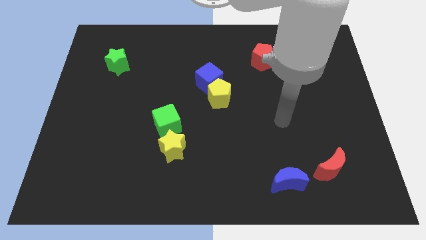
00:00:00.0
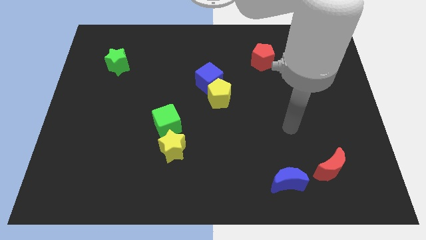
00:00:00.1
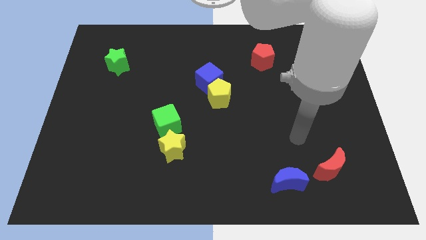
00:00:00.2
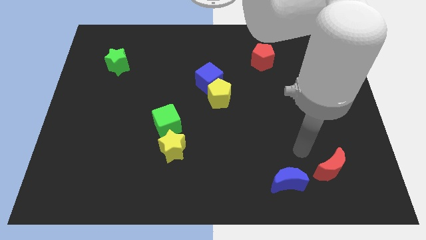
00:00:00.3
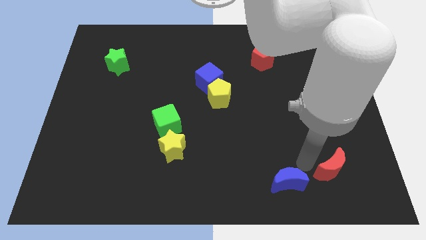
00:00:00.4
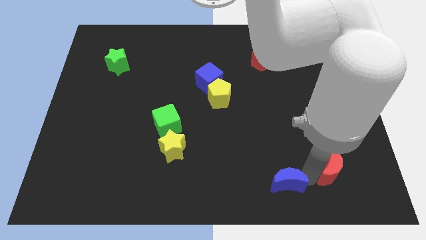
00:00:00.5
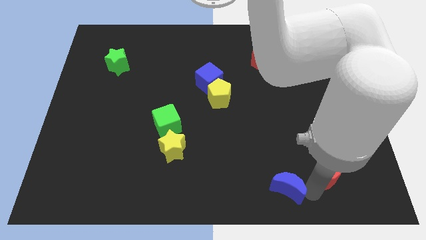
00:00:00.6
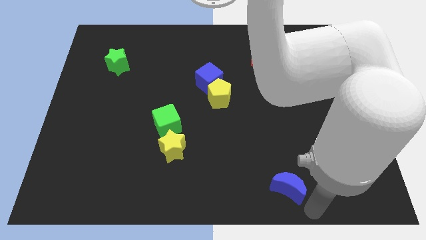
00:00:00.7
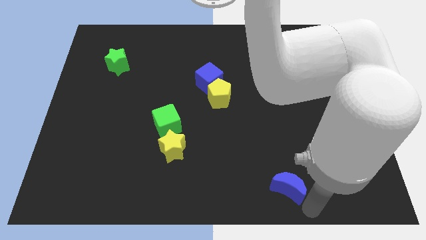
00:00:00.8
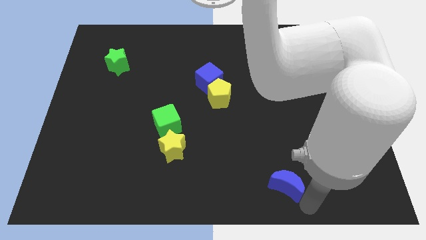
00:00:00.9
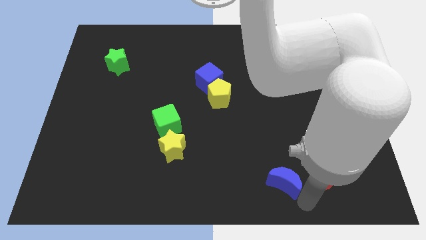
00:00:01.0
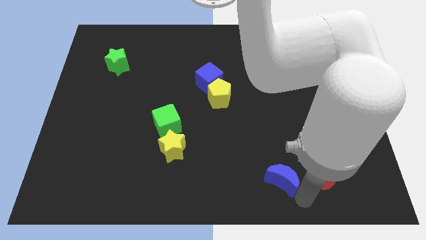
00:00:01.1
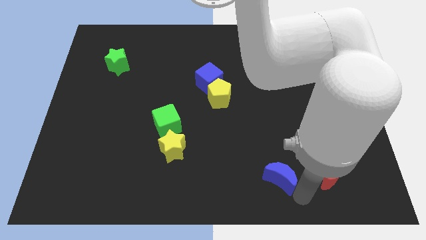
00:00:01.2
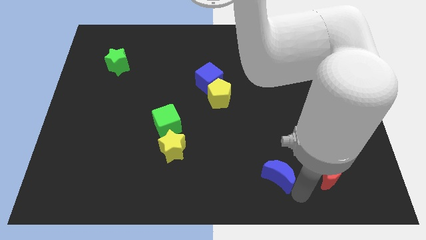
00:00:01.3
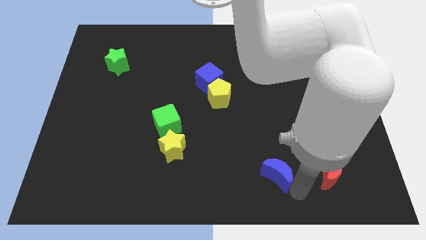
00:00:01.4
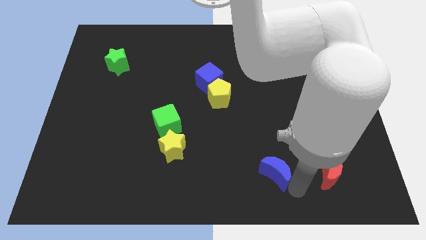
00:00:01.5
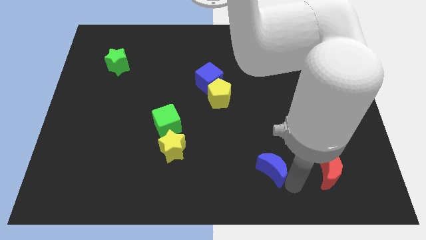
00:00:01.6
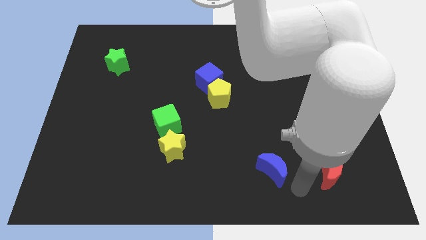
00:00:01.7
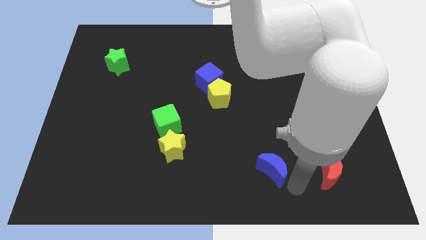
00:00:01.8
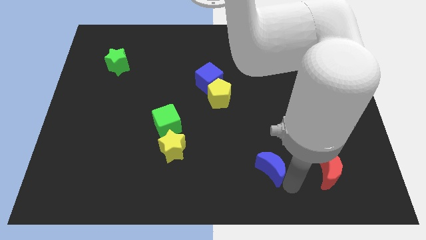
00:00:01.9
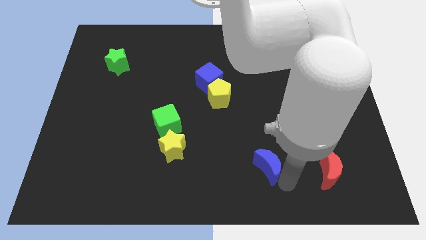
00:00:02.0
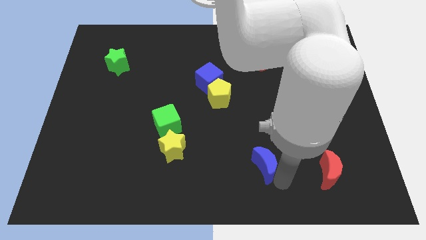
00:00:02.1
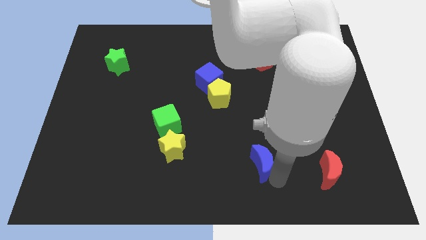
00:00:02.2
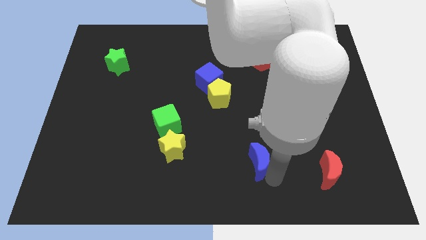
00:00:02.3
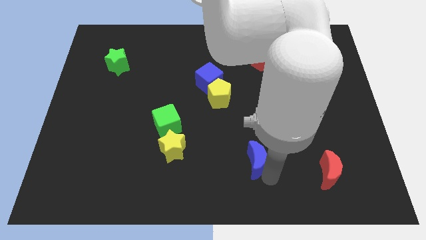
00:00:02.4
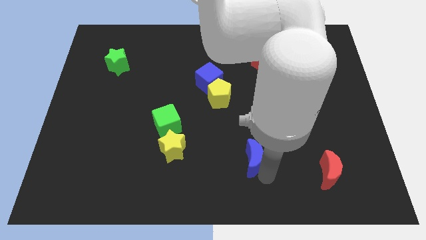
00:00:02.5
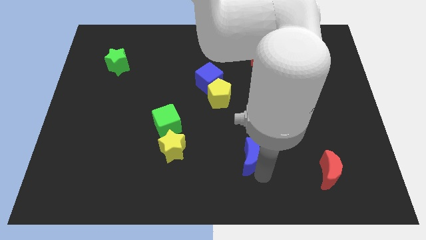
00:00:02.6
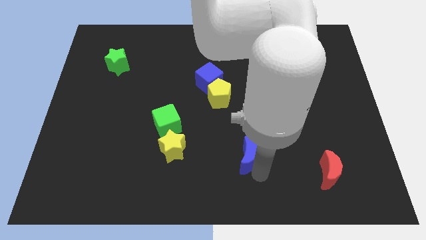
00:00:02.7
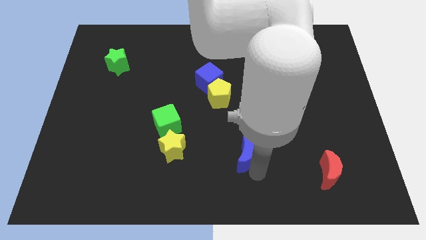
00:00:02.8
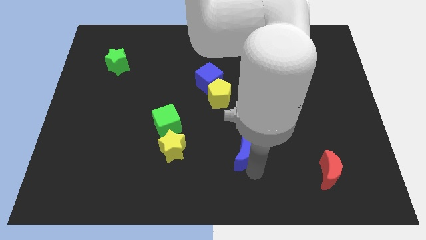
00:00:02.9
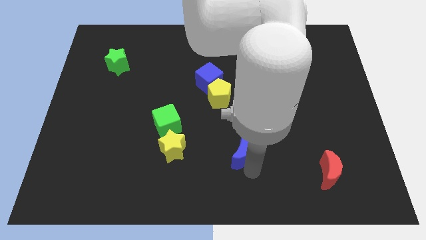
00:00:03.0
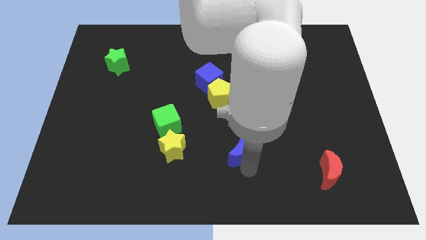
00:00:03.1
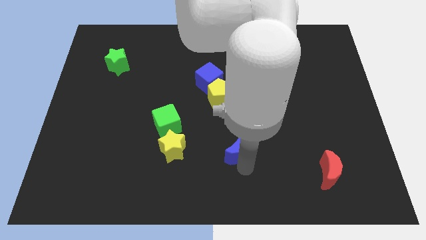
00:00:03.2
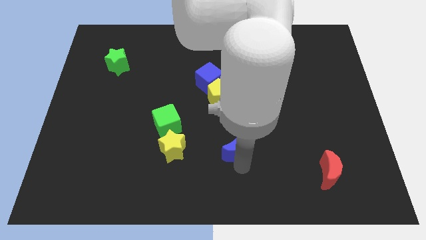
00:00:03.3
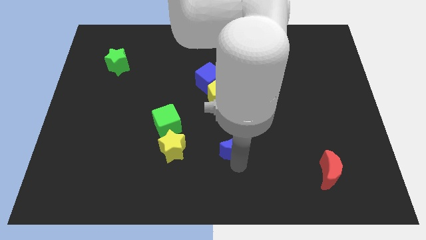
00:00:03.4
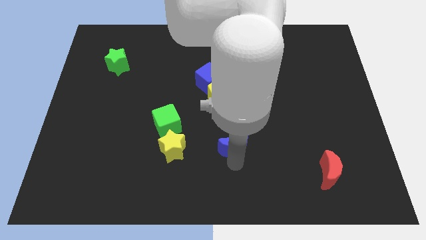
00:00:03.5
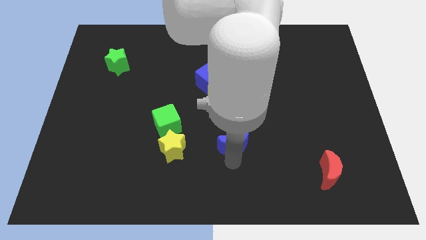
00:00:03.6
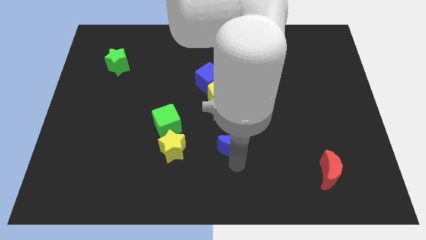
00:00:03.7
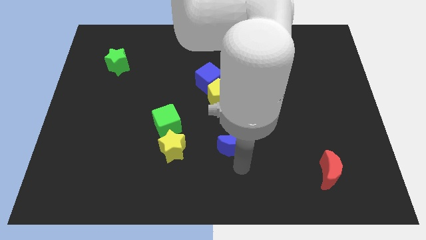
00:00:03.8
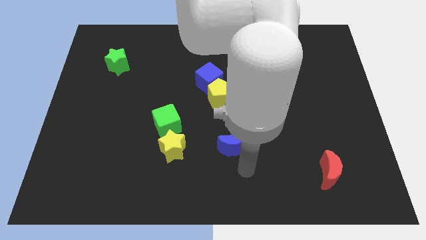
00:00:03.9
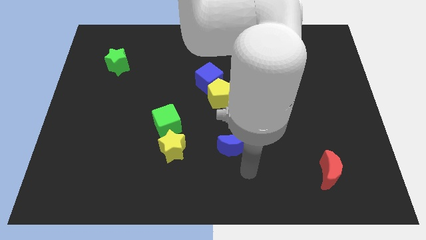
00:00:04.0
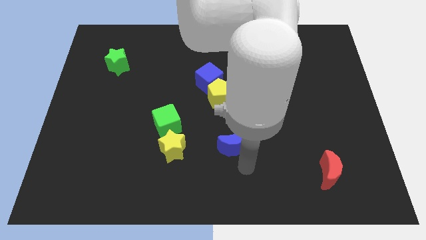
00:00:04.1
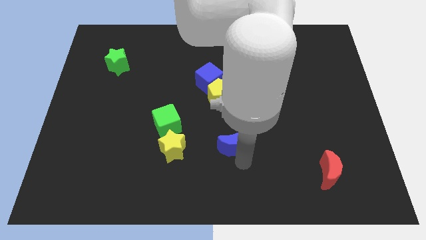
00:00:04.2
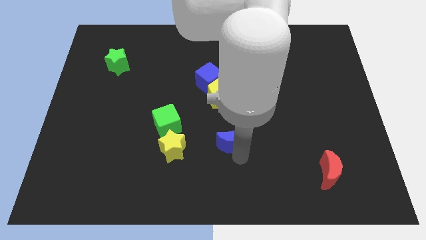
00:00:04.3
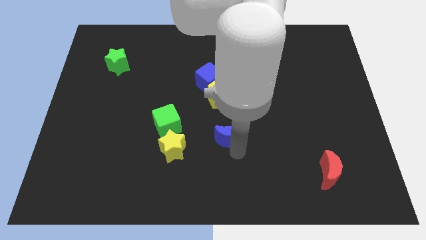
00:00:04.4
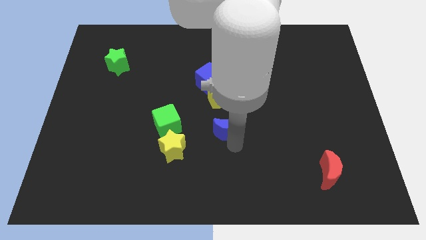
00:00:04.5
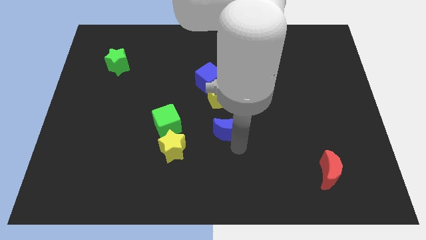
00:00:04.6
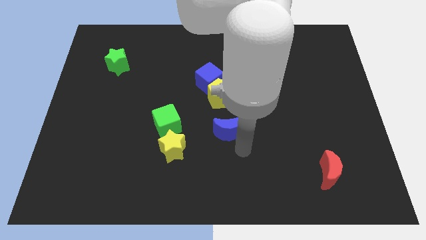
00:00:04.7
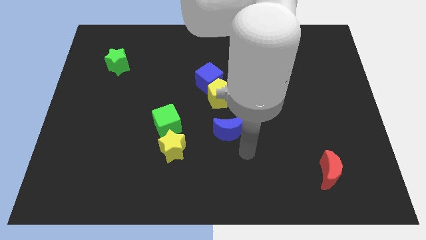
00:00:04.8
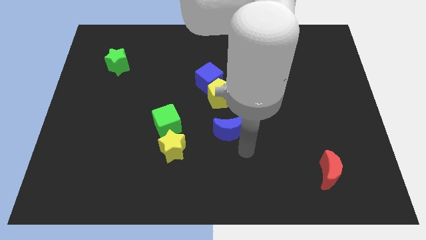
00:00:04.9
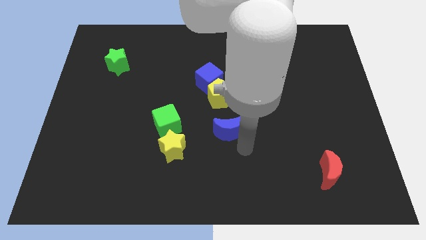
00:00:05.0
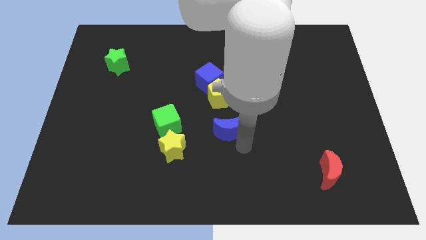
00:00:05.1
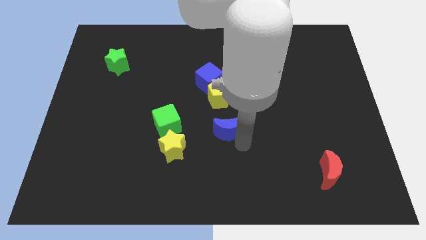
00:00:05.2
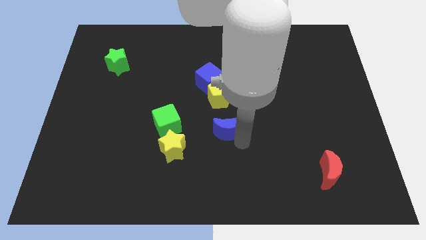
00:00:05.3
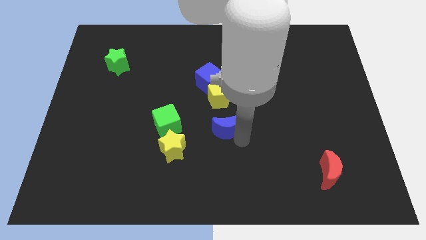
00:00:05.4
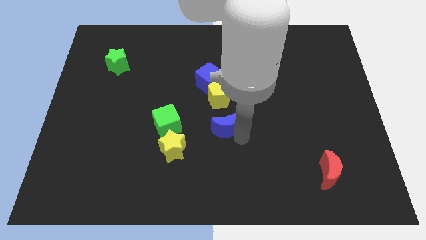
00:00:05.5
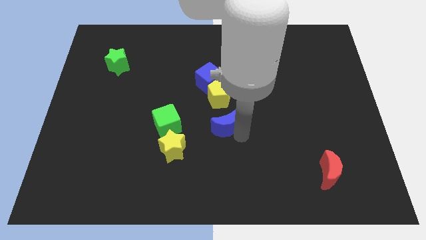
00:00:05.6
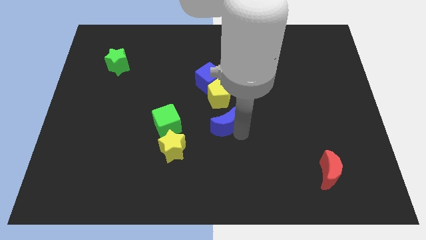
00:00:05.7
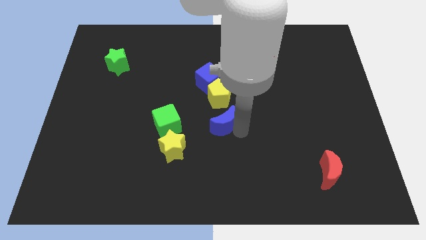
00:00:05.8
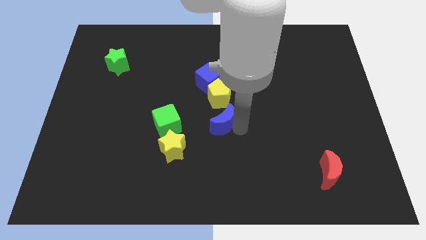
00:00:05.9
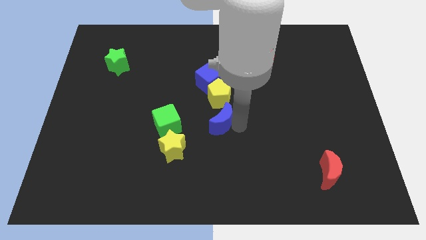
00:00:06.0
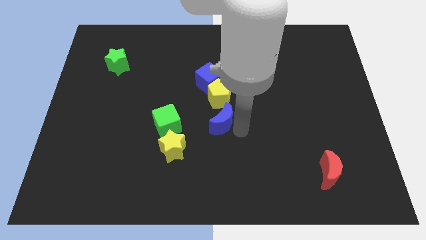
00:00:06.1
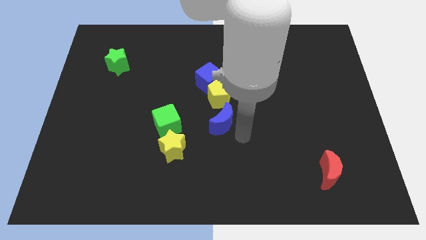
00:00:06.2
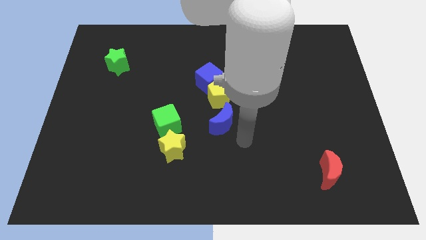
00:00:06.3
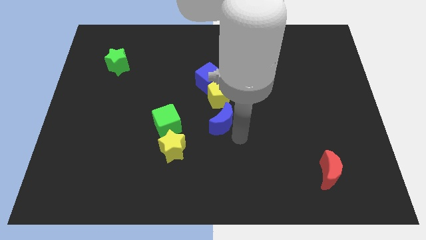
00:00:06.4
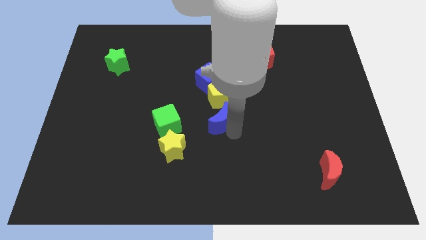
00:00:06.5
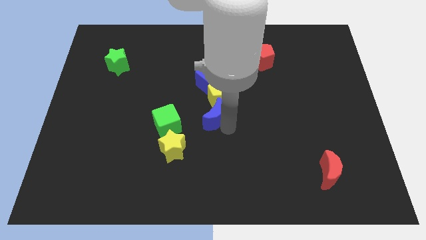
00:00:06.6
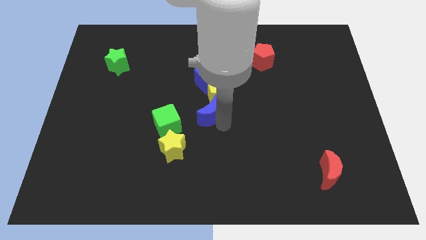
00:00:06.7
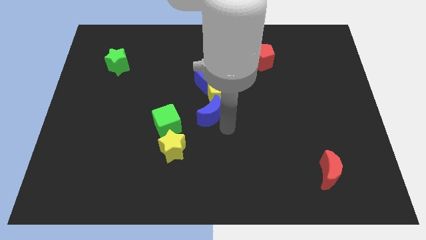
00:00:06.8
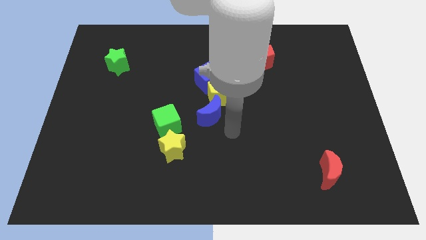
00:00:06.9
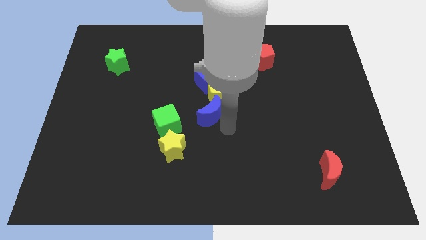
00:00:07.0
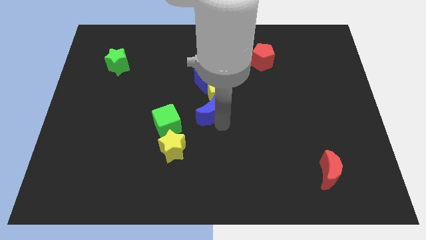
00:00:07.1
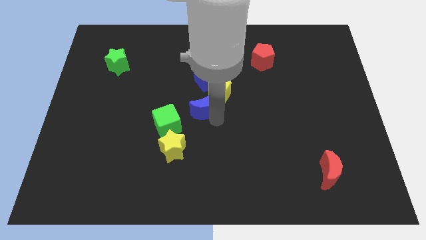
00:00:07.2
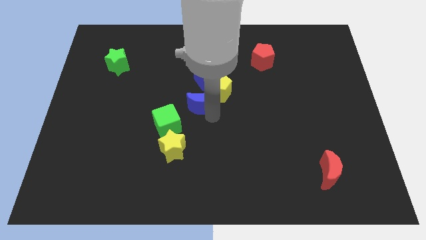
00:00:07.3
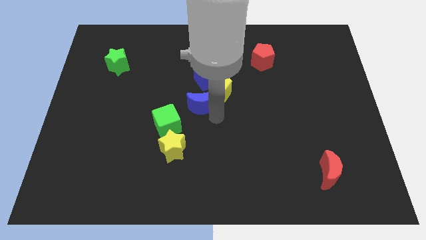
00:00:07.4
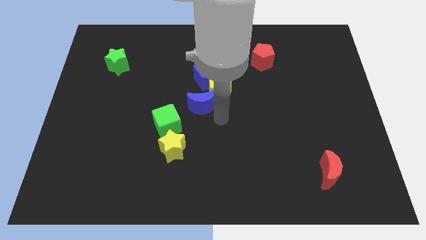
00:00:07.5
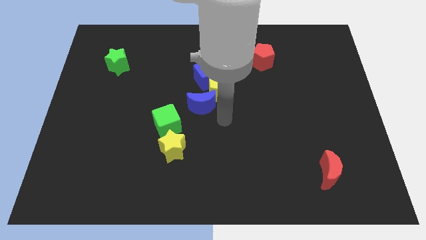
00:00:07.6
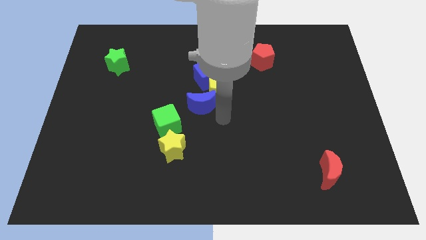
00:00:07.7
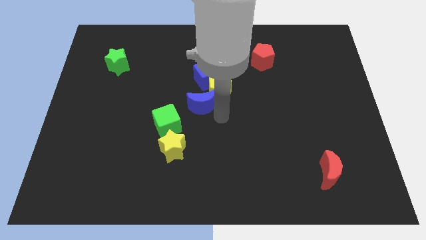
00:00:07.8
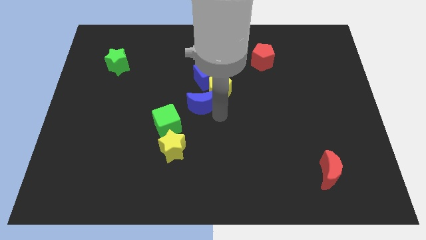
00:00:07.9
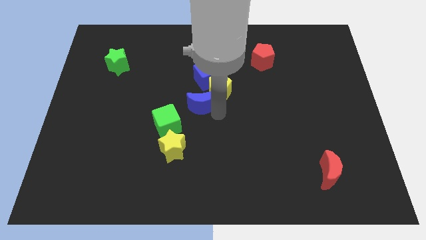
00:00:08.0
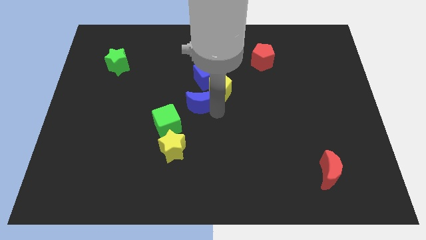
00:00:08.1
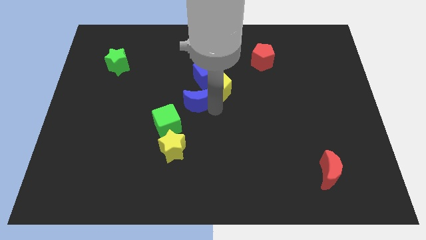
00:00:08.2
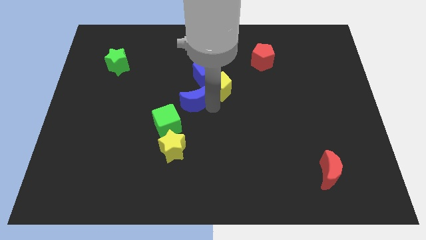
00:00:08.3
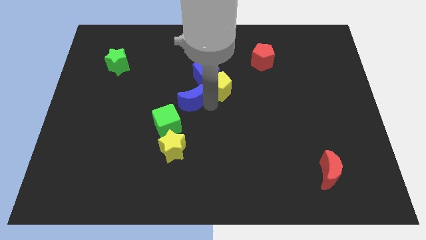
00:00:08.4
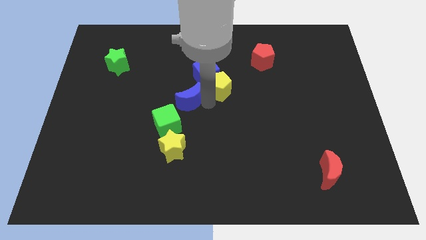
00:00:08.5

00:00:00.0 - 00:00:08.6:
push the blue moon to the top side of the green cube
